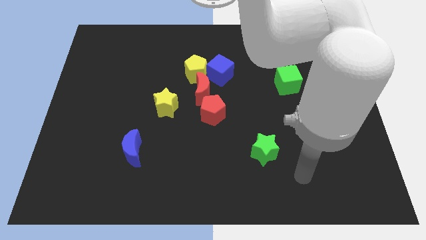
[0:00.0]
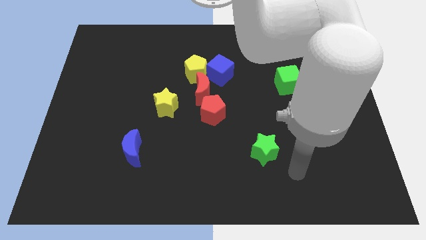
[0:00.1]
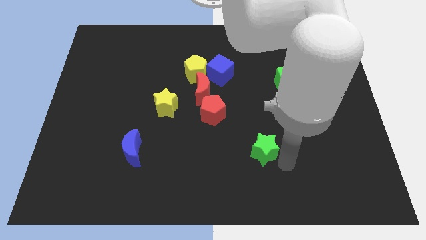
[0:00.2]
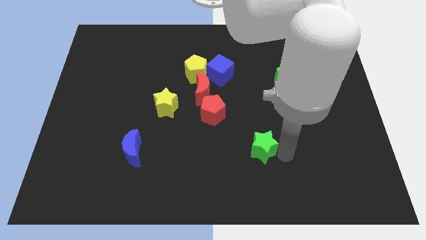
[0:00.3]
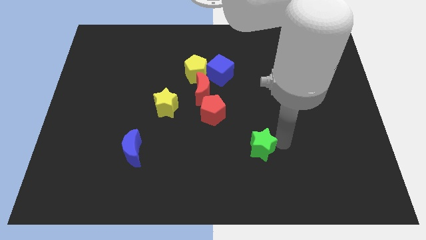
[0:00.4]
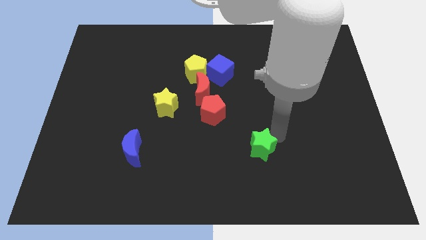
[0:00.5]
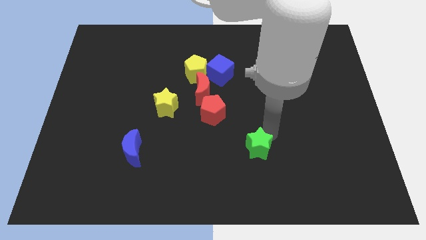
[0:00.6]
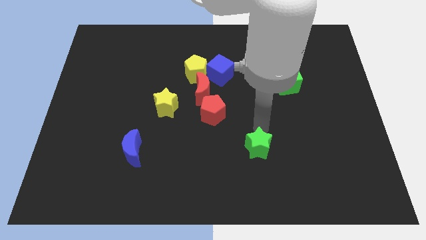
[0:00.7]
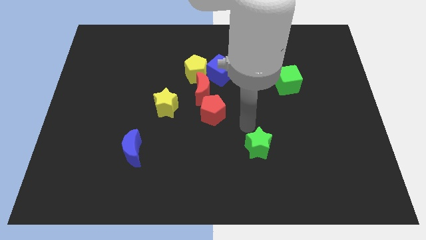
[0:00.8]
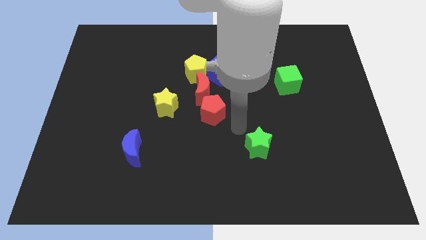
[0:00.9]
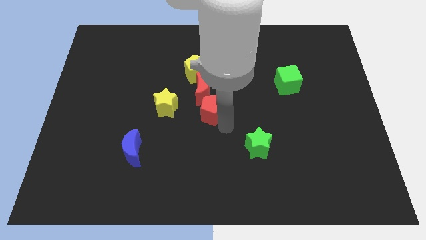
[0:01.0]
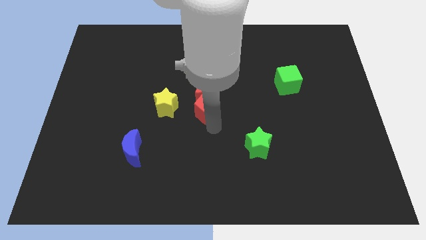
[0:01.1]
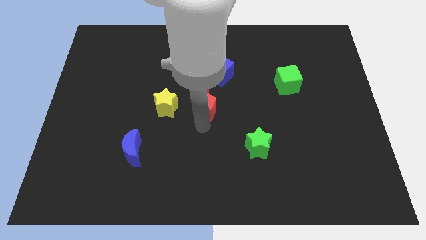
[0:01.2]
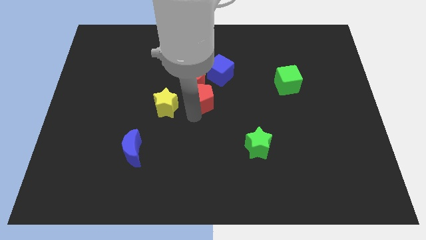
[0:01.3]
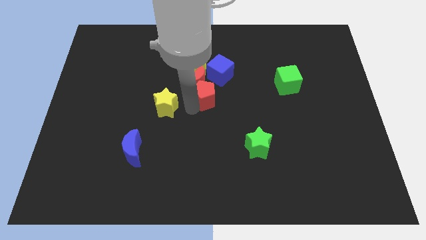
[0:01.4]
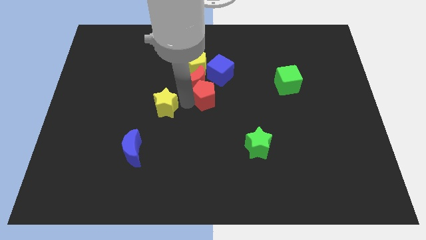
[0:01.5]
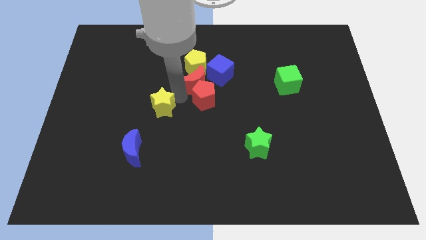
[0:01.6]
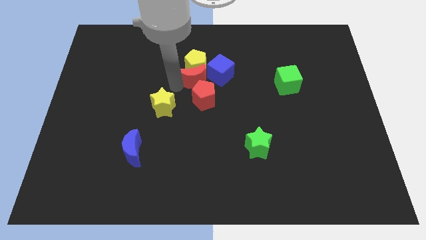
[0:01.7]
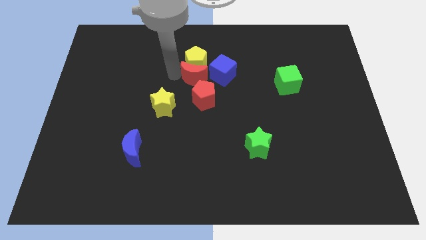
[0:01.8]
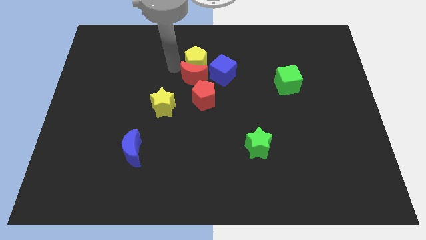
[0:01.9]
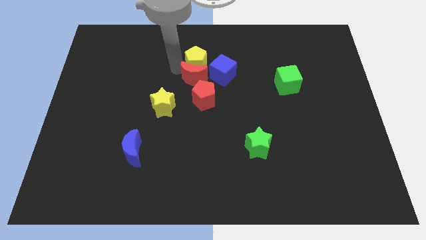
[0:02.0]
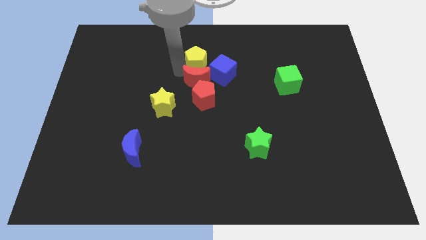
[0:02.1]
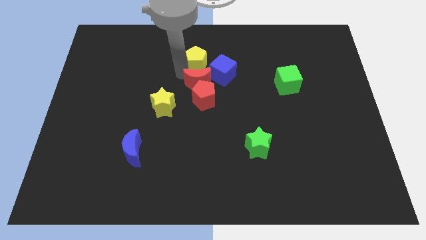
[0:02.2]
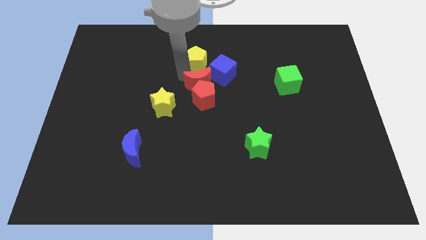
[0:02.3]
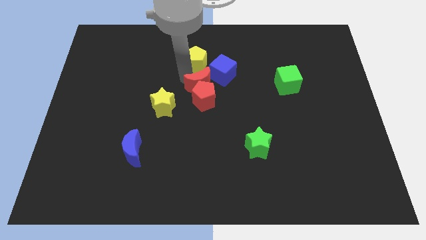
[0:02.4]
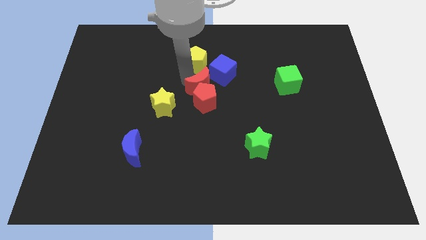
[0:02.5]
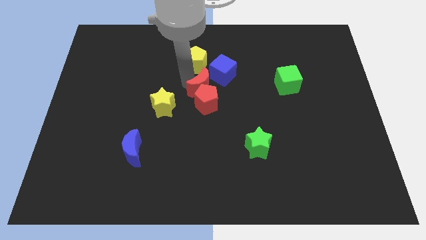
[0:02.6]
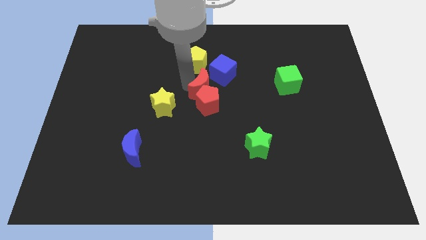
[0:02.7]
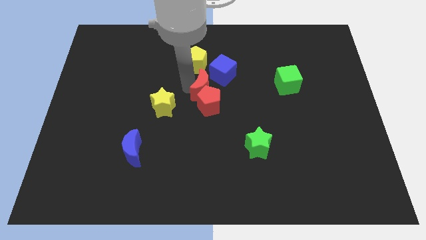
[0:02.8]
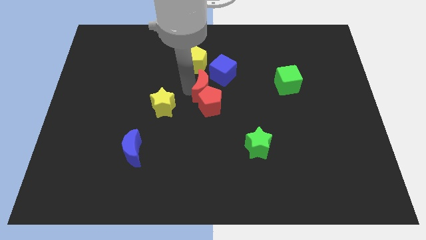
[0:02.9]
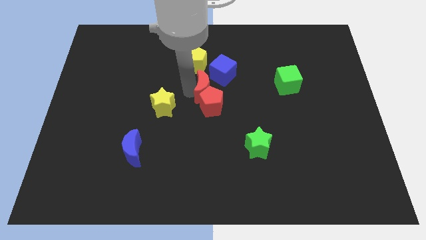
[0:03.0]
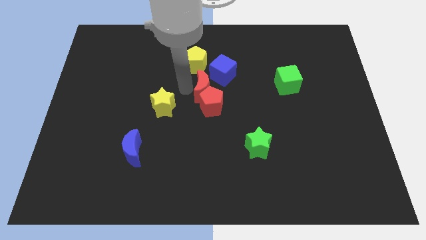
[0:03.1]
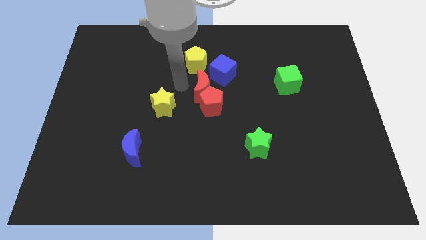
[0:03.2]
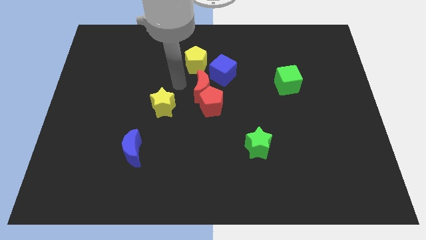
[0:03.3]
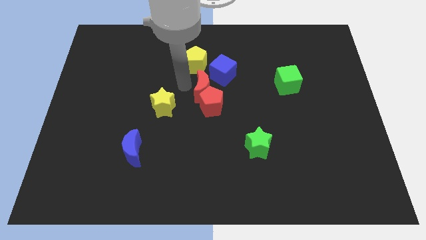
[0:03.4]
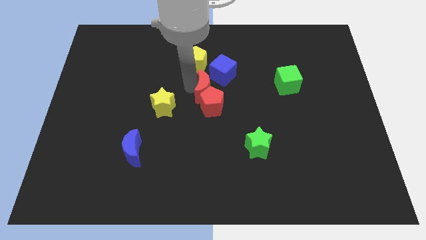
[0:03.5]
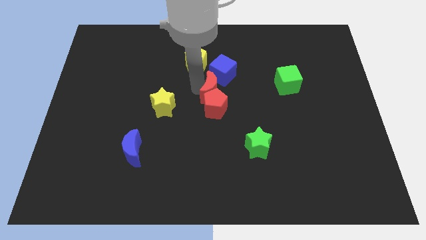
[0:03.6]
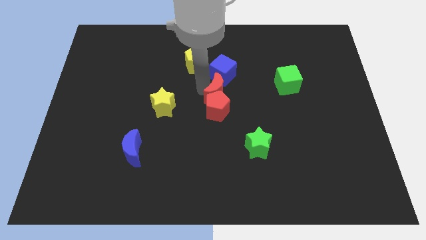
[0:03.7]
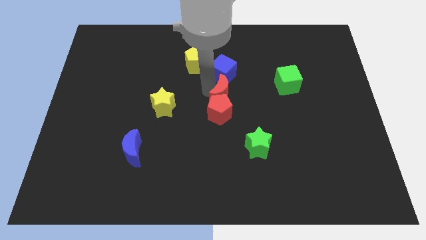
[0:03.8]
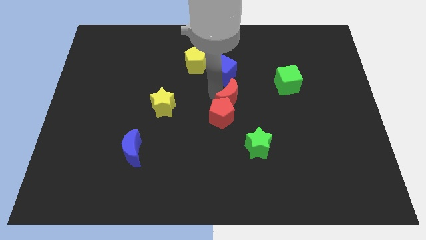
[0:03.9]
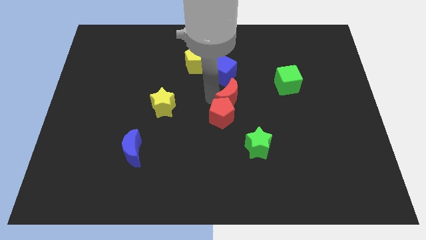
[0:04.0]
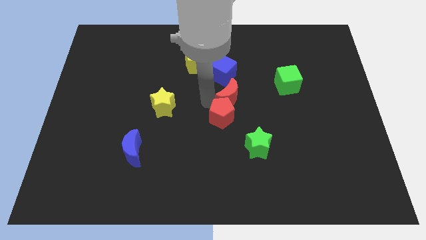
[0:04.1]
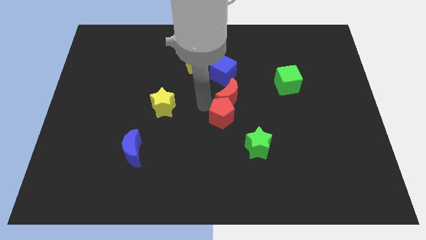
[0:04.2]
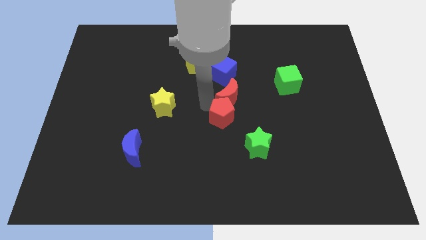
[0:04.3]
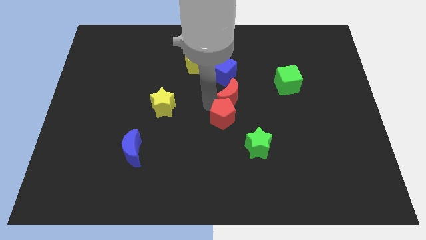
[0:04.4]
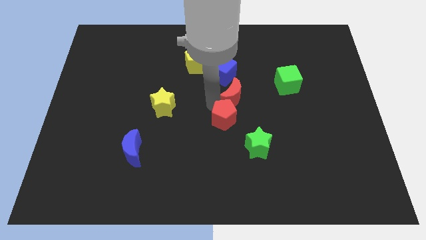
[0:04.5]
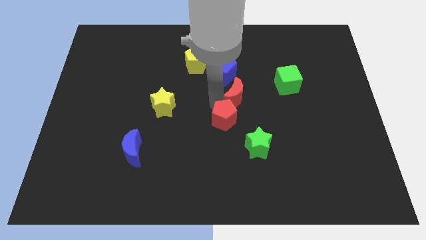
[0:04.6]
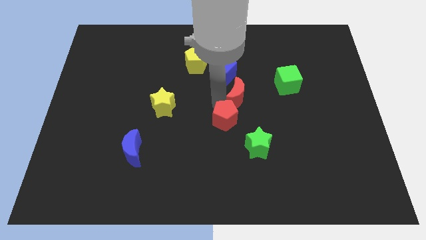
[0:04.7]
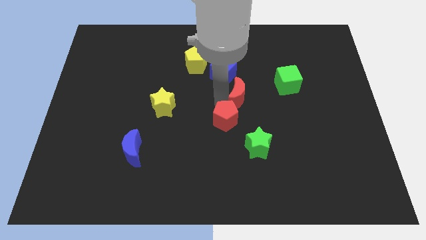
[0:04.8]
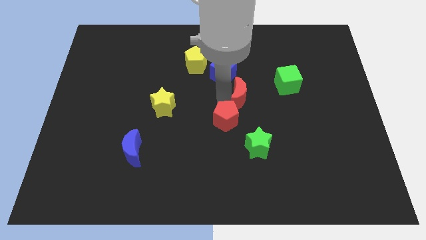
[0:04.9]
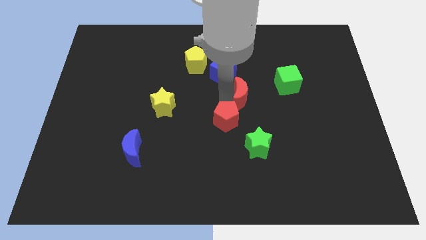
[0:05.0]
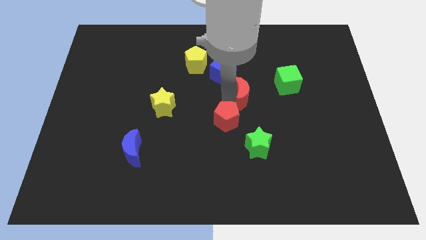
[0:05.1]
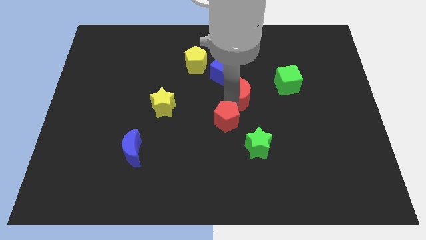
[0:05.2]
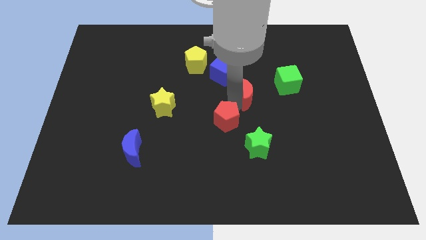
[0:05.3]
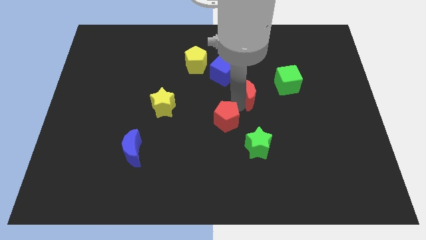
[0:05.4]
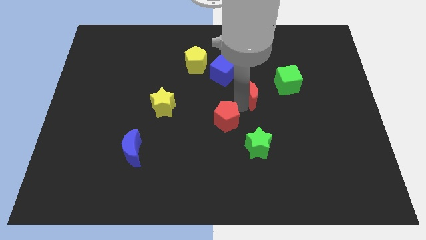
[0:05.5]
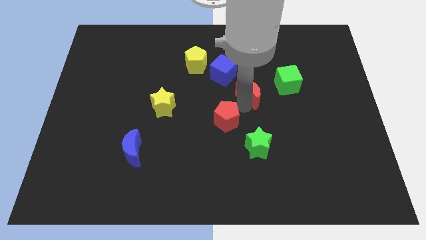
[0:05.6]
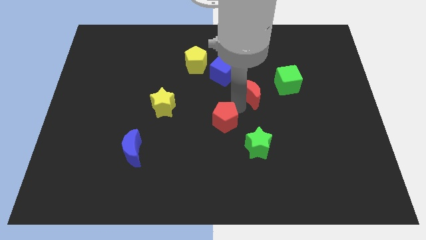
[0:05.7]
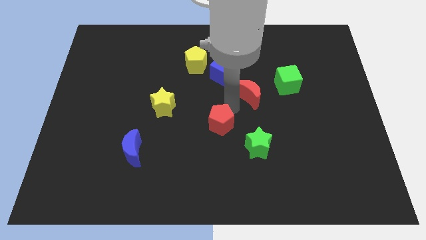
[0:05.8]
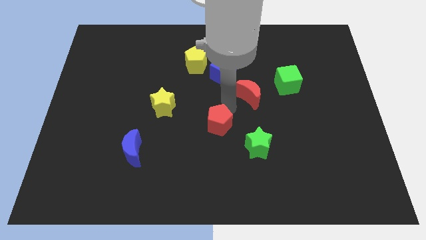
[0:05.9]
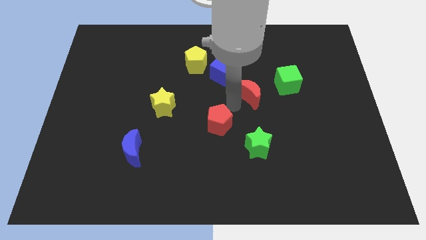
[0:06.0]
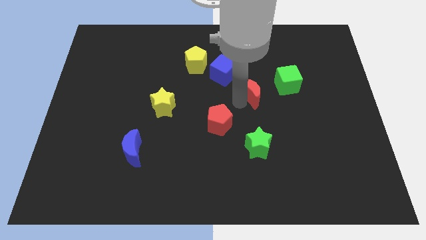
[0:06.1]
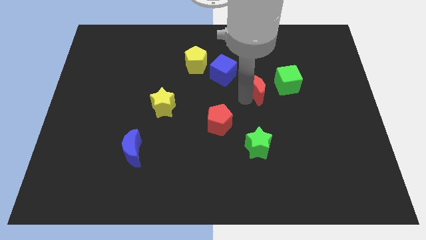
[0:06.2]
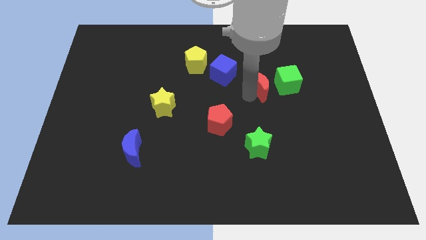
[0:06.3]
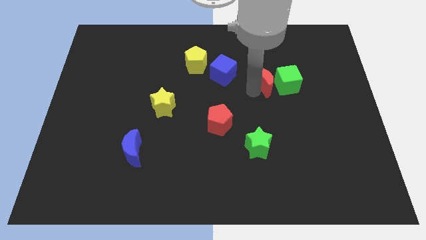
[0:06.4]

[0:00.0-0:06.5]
push the red moon next to the green cube
